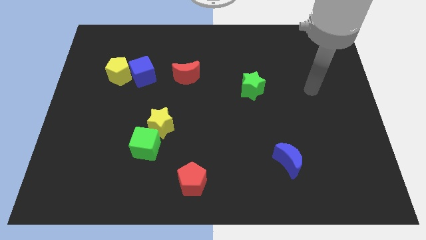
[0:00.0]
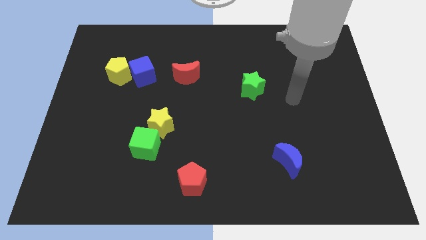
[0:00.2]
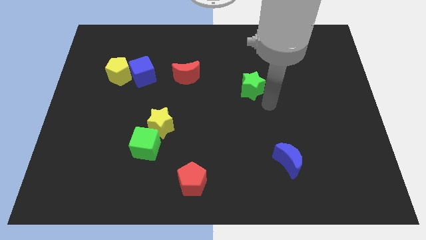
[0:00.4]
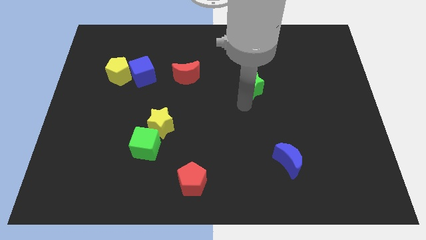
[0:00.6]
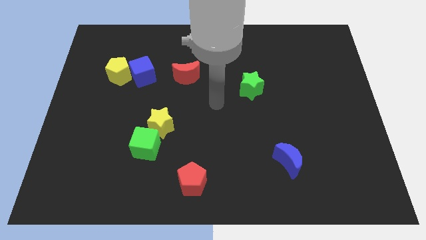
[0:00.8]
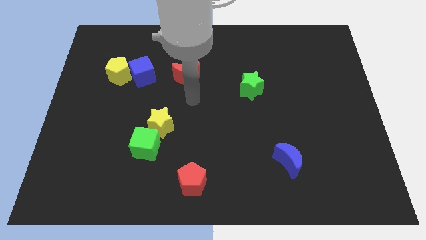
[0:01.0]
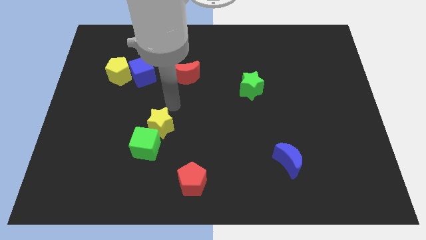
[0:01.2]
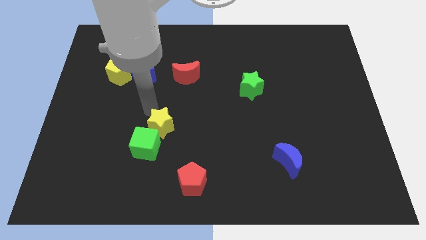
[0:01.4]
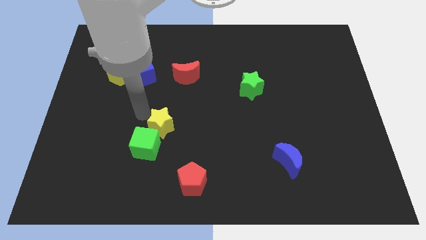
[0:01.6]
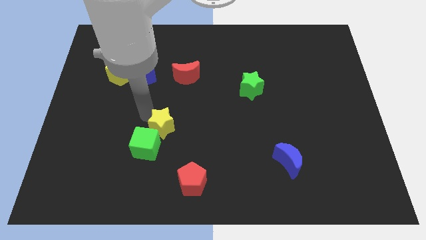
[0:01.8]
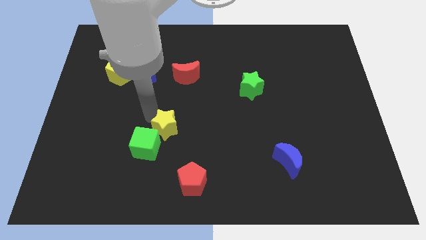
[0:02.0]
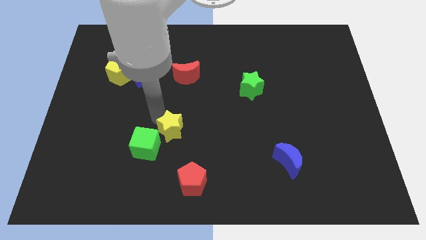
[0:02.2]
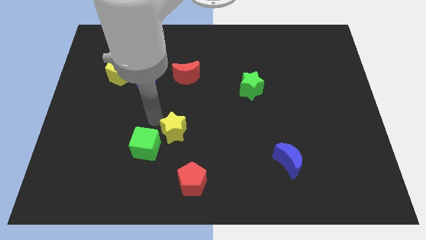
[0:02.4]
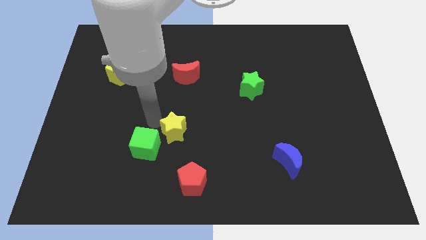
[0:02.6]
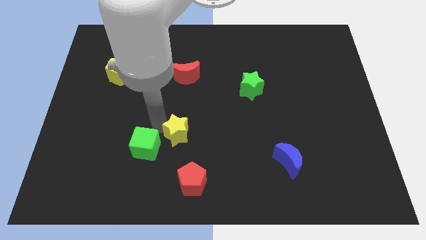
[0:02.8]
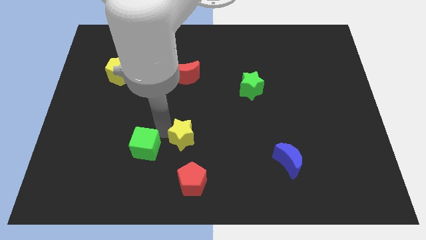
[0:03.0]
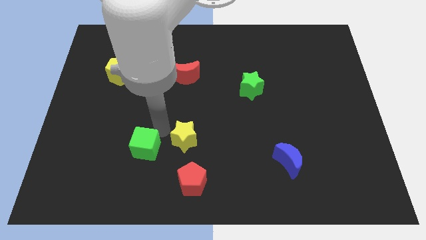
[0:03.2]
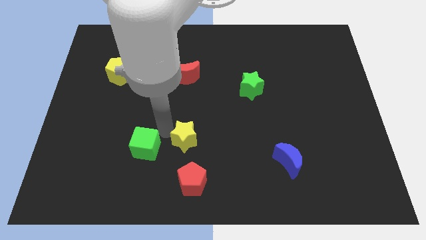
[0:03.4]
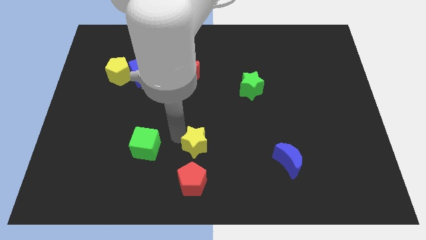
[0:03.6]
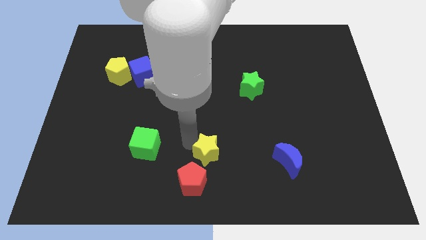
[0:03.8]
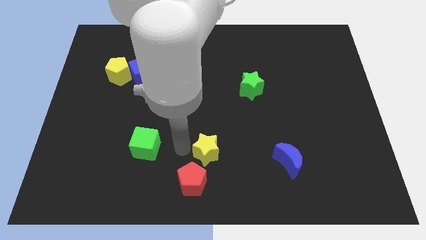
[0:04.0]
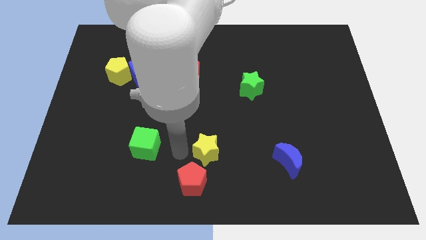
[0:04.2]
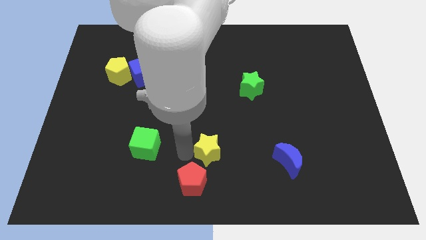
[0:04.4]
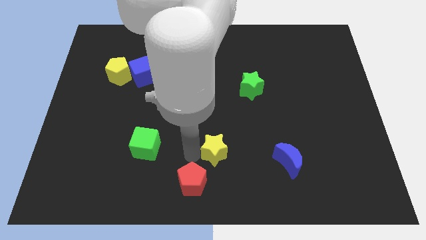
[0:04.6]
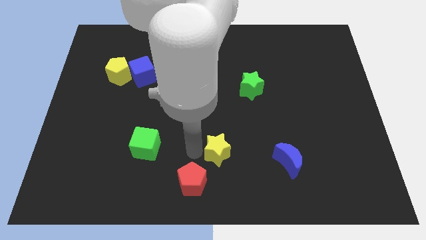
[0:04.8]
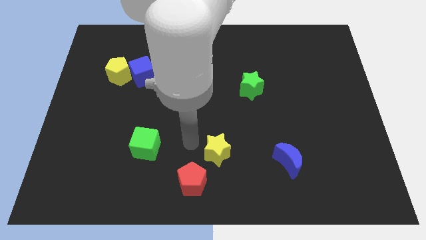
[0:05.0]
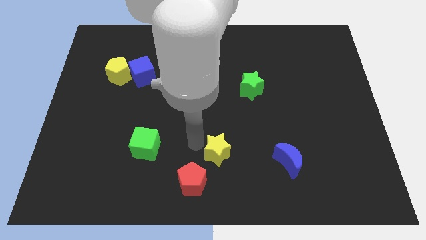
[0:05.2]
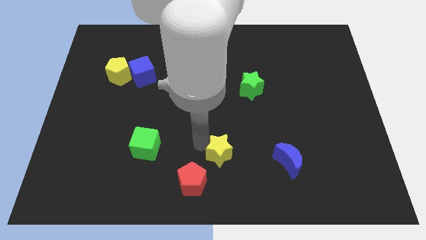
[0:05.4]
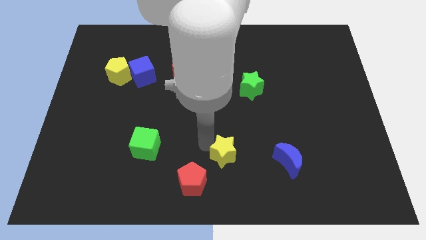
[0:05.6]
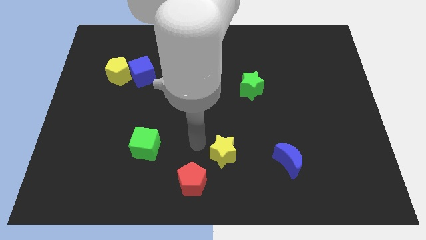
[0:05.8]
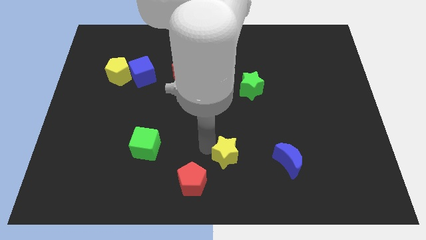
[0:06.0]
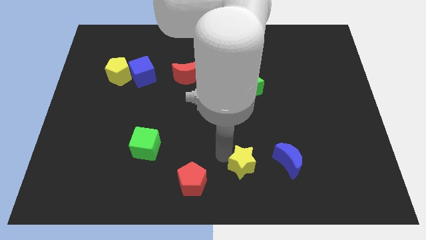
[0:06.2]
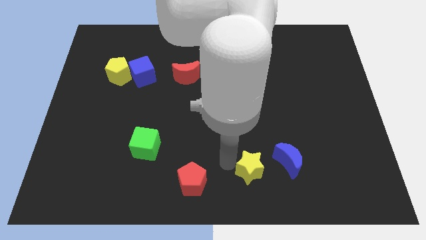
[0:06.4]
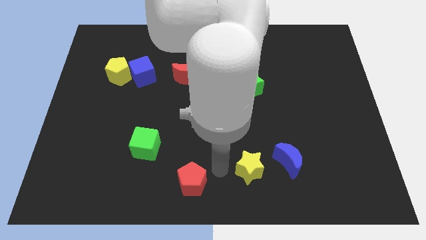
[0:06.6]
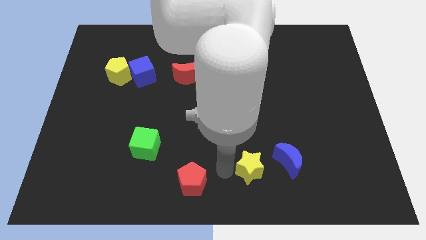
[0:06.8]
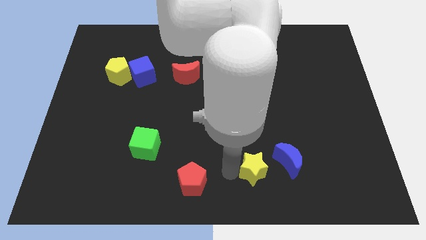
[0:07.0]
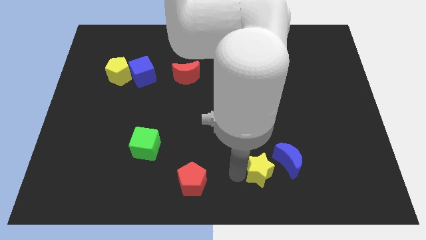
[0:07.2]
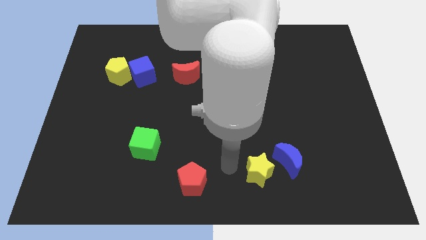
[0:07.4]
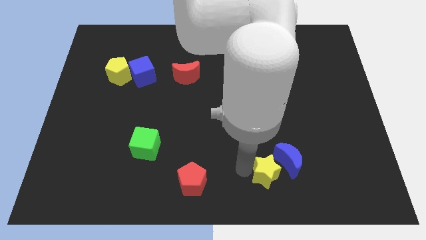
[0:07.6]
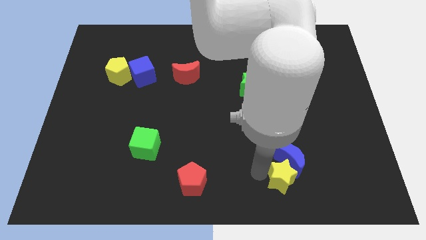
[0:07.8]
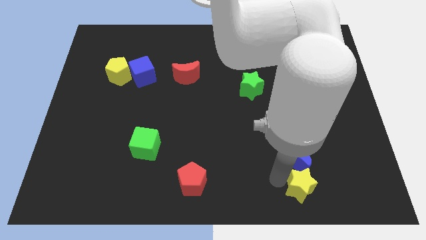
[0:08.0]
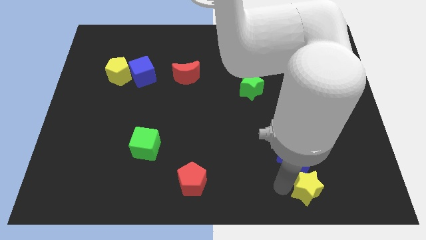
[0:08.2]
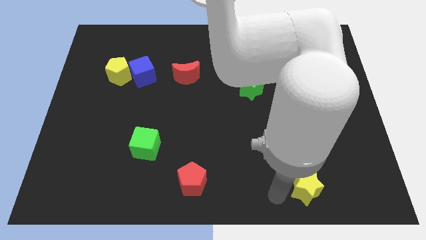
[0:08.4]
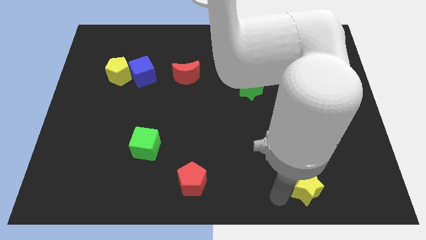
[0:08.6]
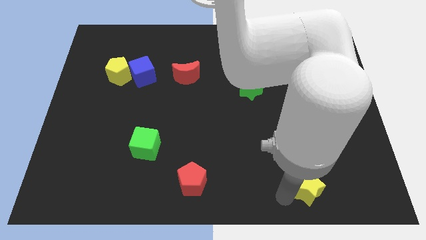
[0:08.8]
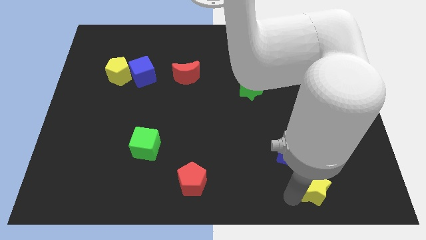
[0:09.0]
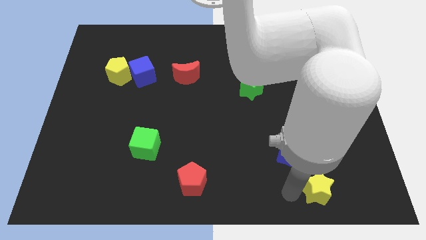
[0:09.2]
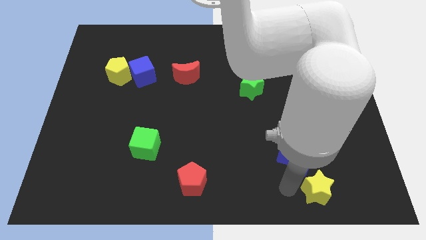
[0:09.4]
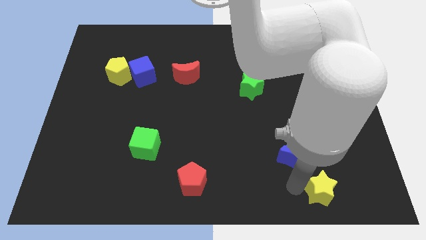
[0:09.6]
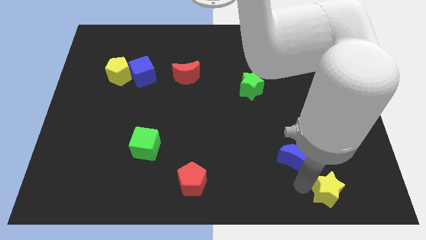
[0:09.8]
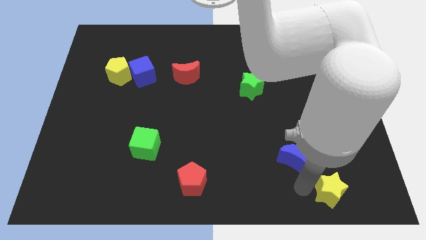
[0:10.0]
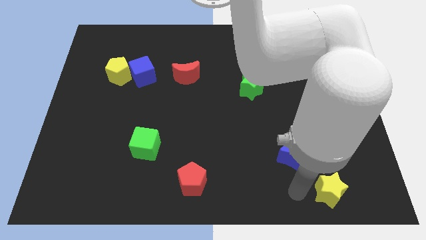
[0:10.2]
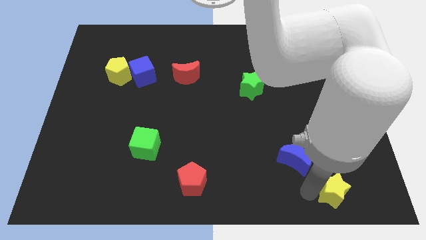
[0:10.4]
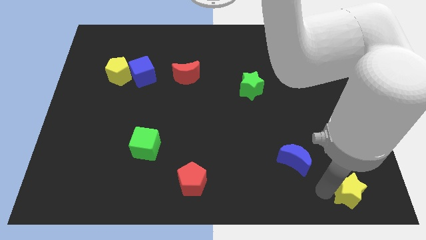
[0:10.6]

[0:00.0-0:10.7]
move the yellow star to the bottom right corner
